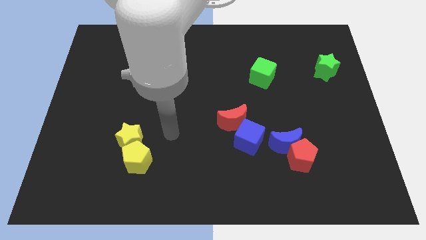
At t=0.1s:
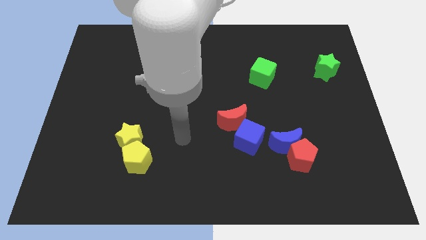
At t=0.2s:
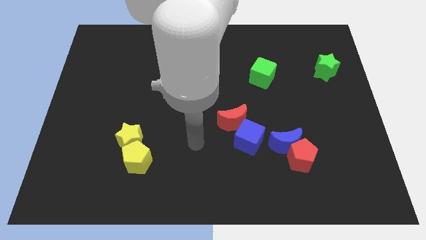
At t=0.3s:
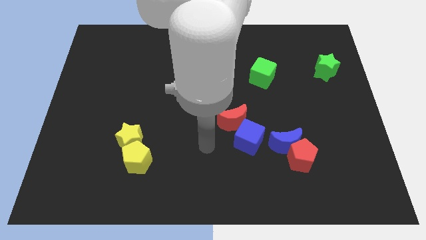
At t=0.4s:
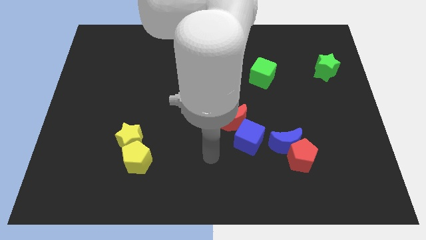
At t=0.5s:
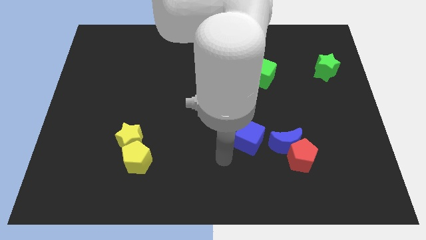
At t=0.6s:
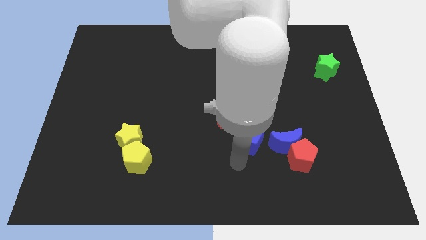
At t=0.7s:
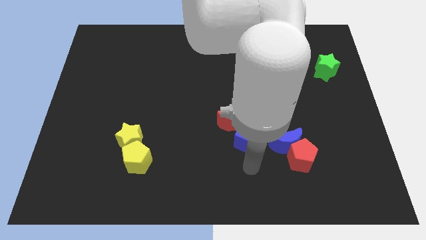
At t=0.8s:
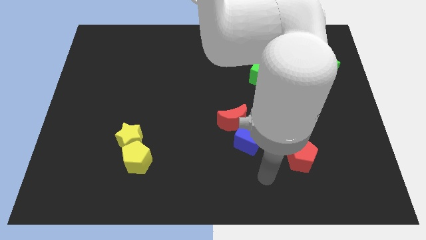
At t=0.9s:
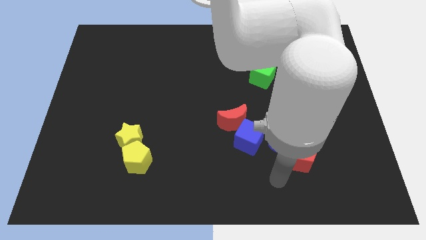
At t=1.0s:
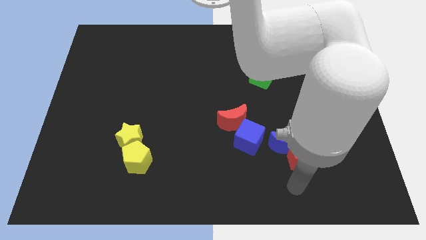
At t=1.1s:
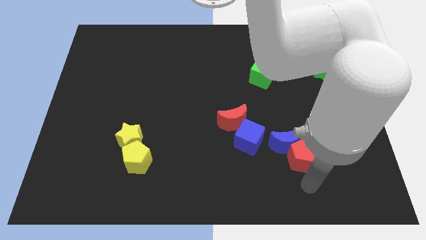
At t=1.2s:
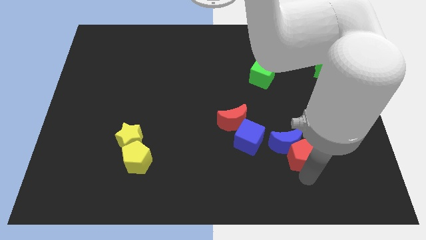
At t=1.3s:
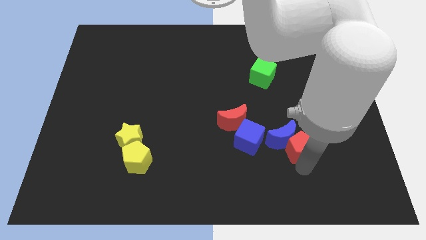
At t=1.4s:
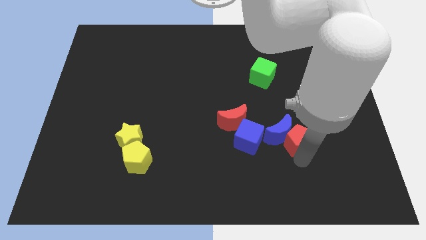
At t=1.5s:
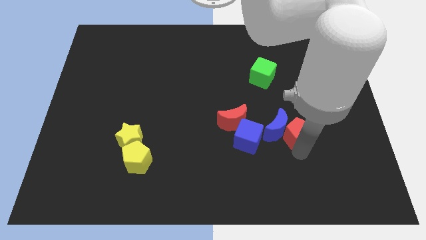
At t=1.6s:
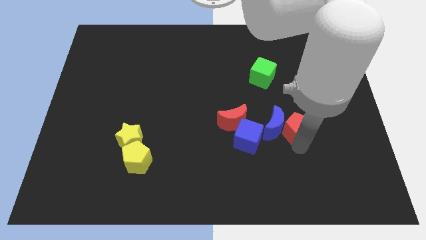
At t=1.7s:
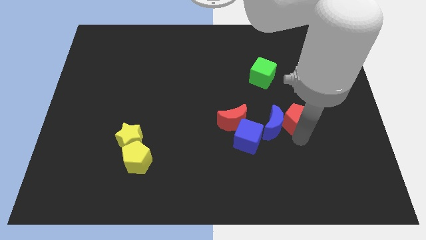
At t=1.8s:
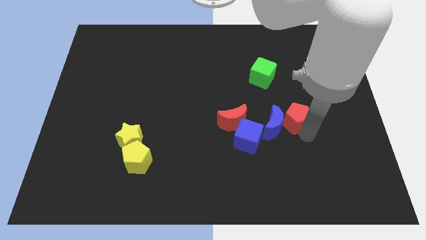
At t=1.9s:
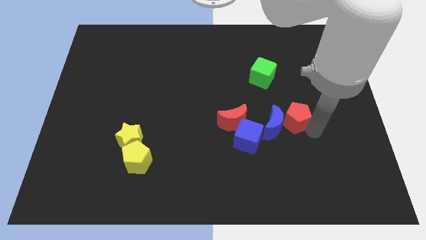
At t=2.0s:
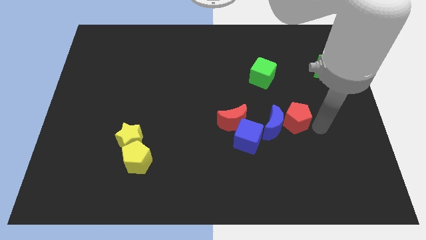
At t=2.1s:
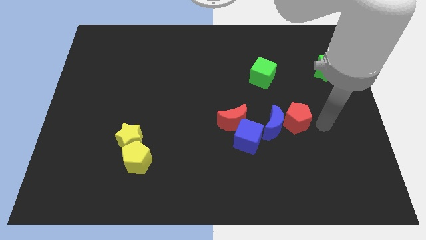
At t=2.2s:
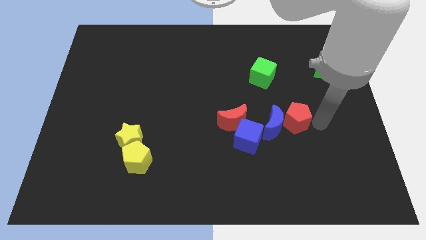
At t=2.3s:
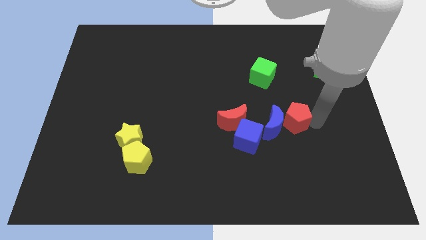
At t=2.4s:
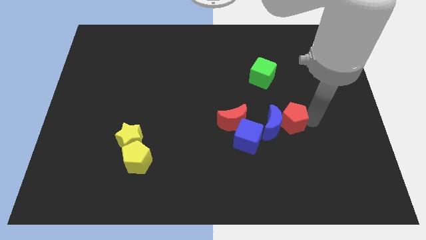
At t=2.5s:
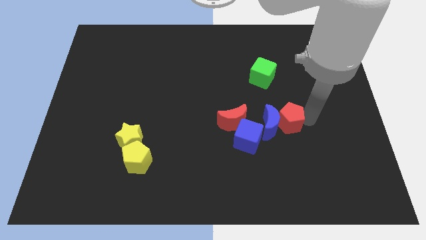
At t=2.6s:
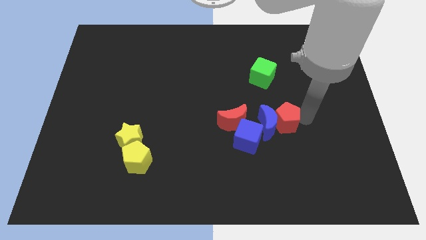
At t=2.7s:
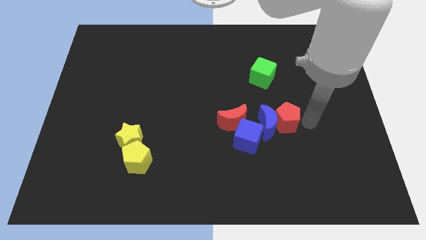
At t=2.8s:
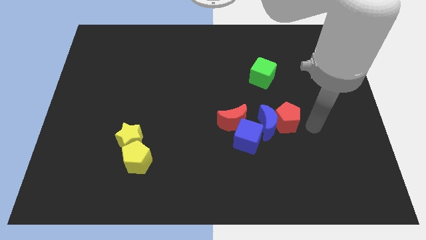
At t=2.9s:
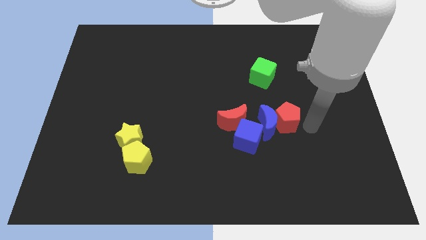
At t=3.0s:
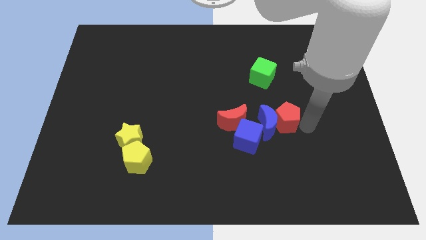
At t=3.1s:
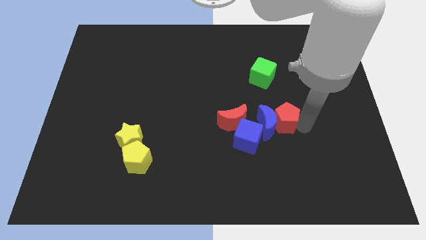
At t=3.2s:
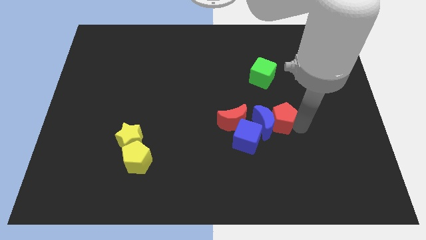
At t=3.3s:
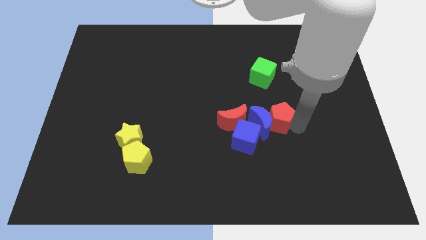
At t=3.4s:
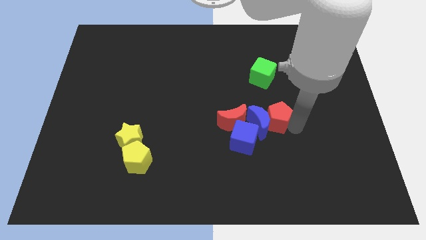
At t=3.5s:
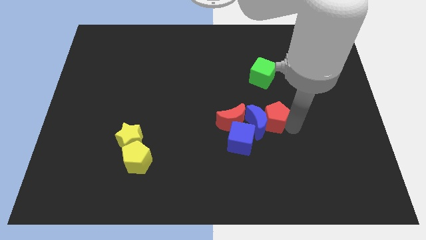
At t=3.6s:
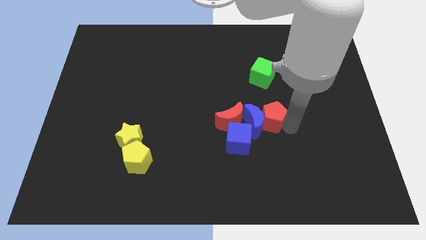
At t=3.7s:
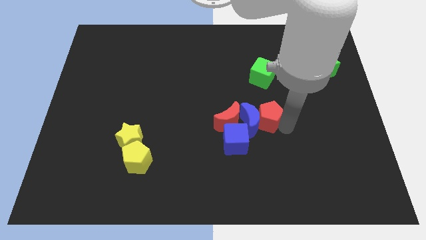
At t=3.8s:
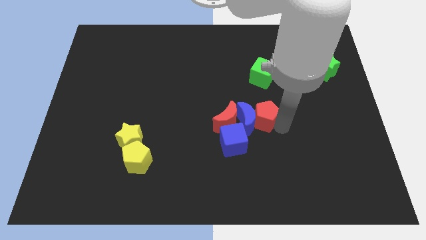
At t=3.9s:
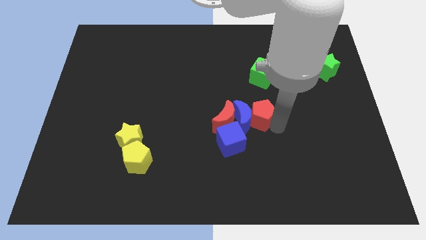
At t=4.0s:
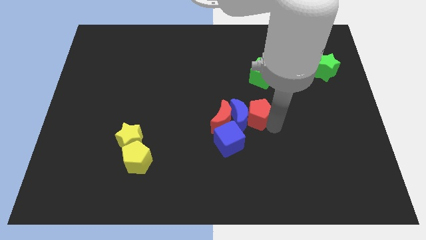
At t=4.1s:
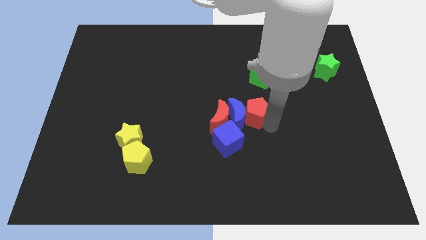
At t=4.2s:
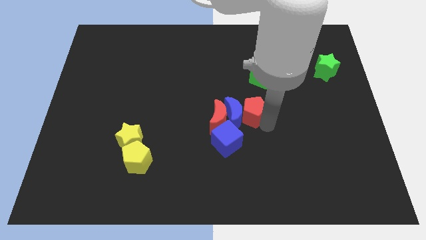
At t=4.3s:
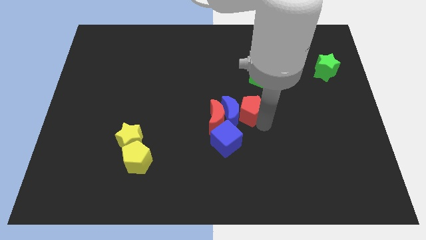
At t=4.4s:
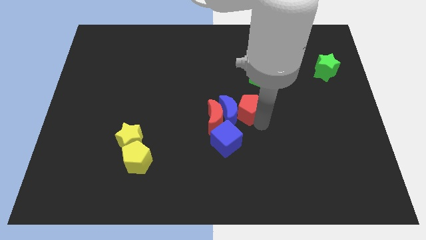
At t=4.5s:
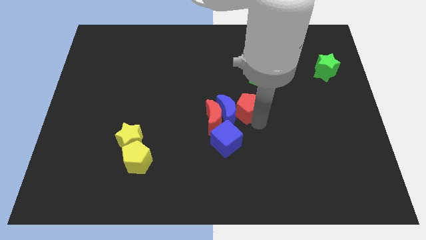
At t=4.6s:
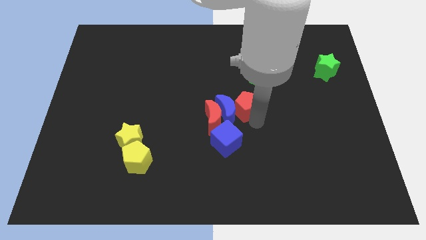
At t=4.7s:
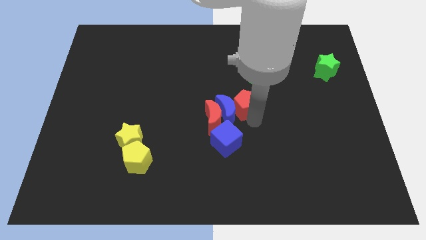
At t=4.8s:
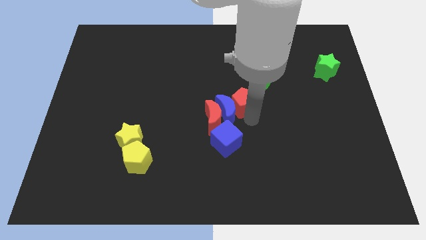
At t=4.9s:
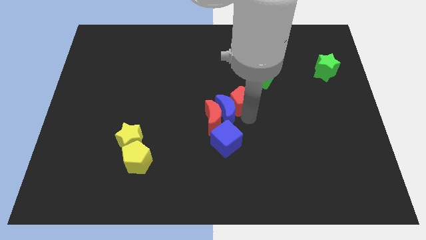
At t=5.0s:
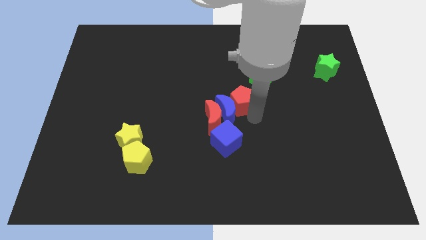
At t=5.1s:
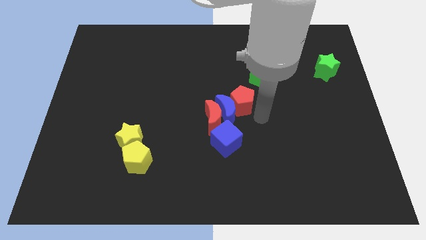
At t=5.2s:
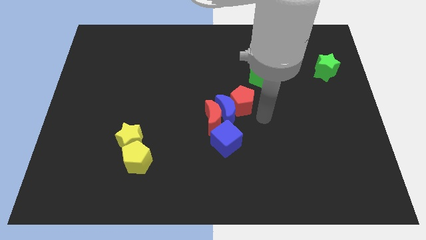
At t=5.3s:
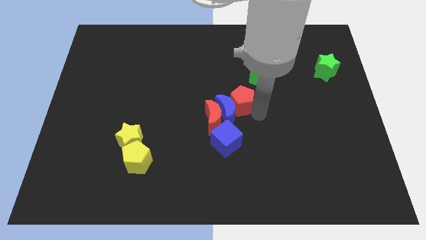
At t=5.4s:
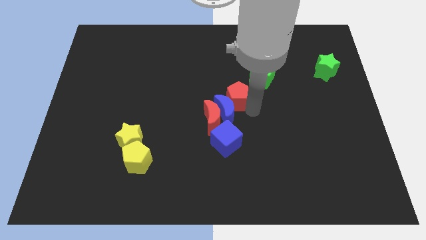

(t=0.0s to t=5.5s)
push the red pentagon upwards and then to the left

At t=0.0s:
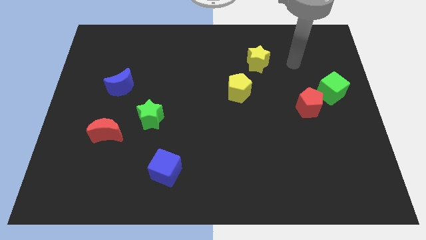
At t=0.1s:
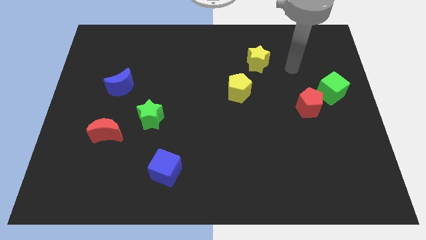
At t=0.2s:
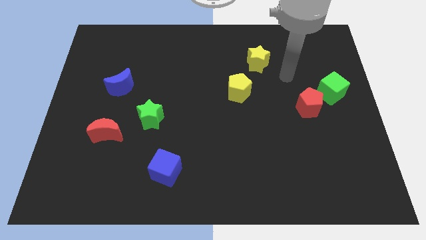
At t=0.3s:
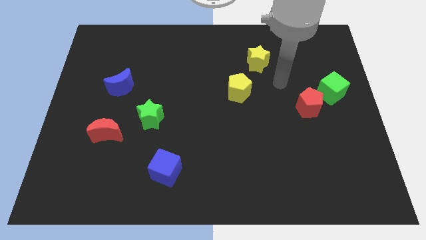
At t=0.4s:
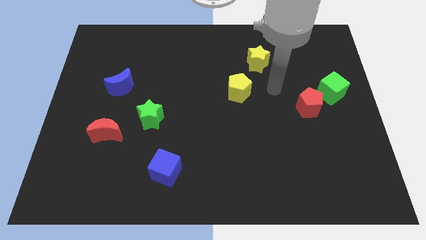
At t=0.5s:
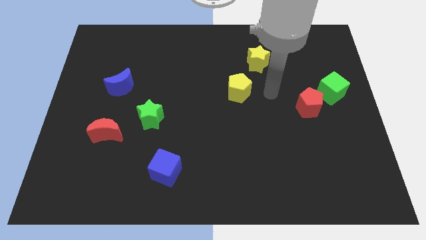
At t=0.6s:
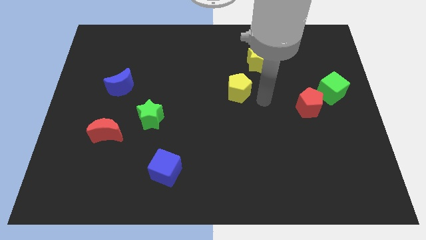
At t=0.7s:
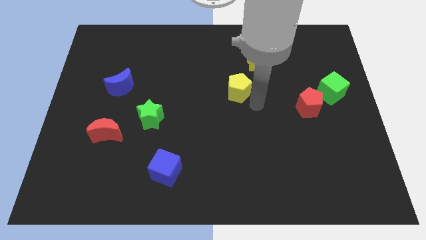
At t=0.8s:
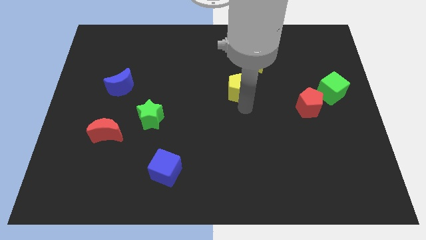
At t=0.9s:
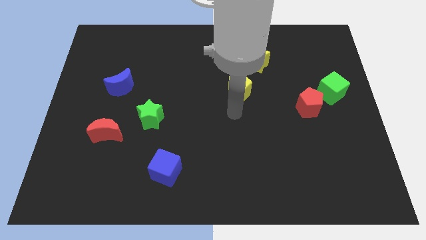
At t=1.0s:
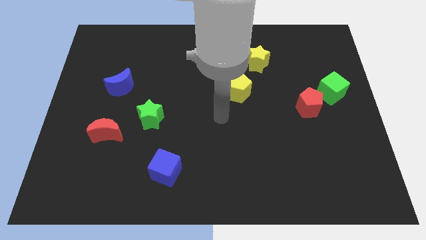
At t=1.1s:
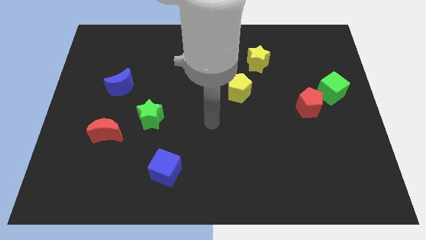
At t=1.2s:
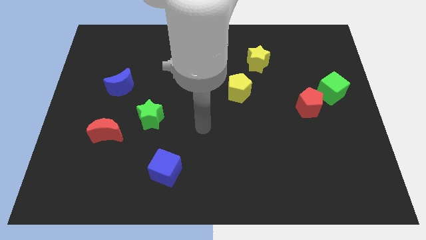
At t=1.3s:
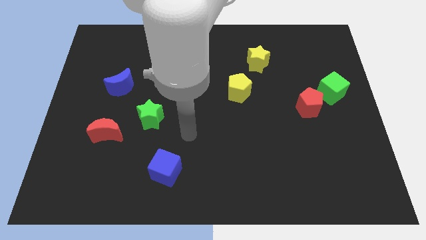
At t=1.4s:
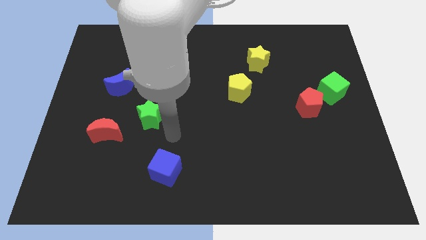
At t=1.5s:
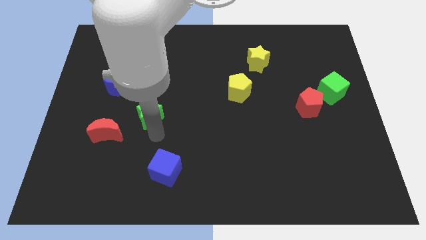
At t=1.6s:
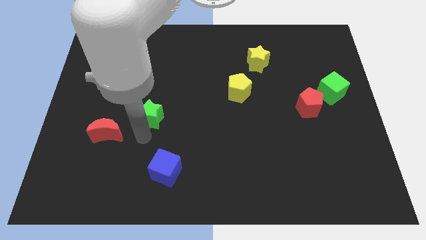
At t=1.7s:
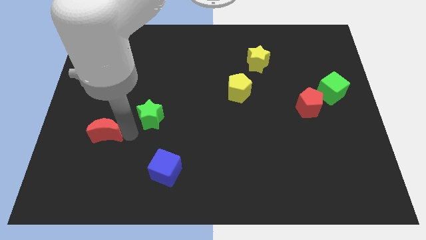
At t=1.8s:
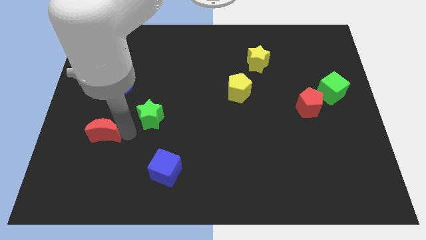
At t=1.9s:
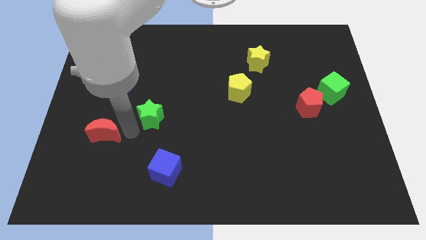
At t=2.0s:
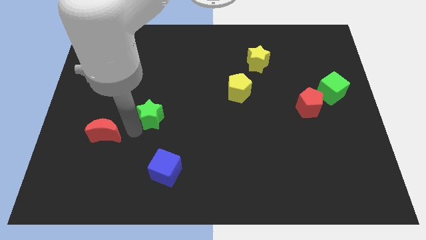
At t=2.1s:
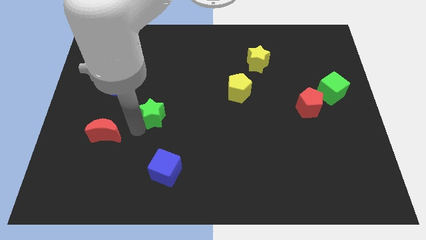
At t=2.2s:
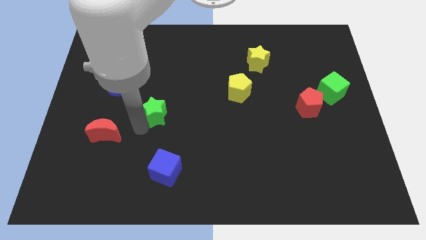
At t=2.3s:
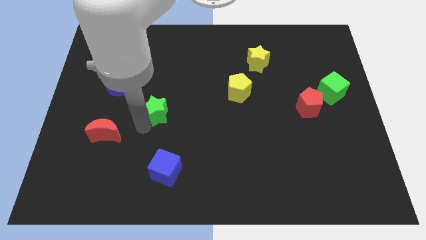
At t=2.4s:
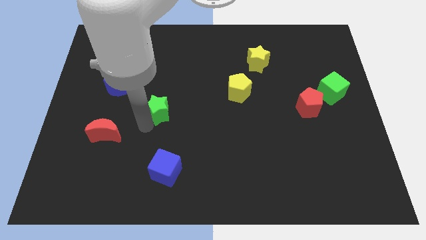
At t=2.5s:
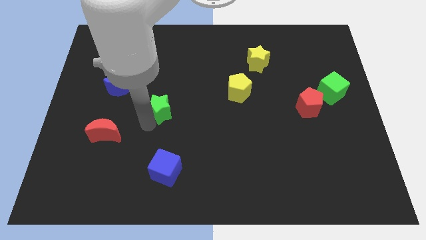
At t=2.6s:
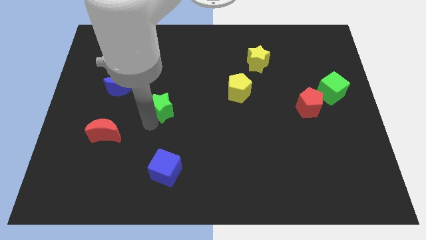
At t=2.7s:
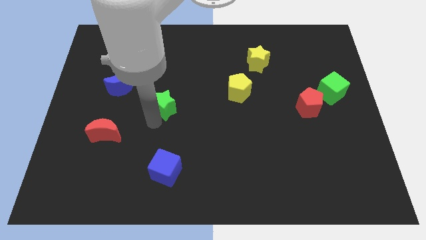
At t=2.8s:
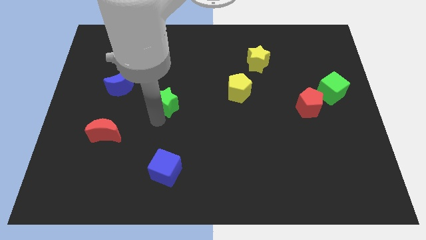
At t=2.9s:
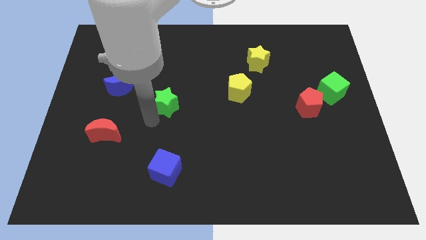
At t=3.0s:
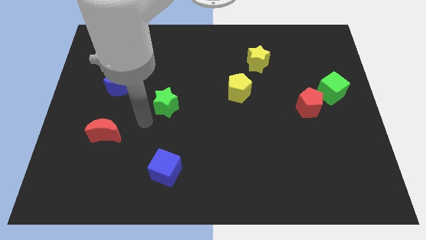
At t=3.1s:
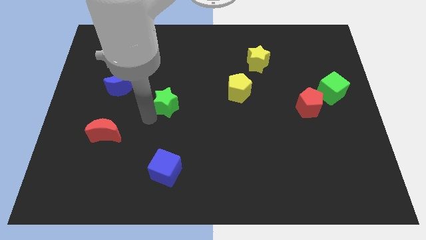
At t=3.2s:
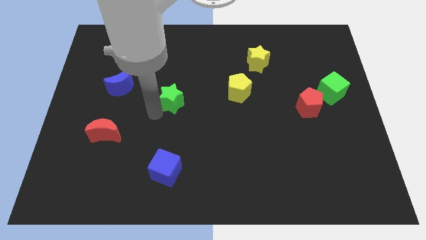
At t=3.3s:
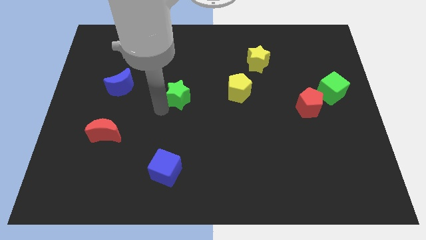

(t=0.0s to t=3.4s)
move the green star upwards and right a little bit
